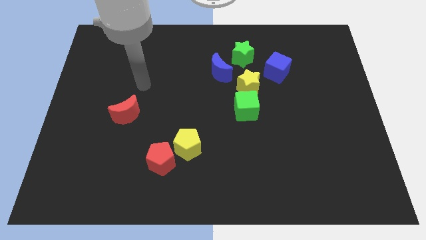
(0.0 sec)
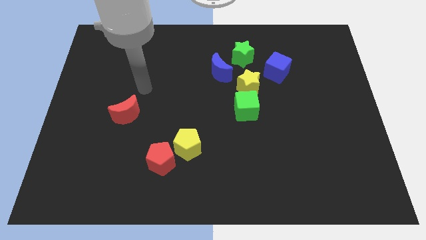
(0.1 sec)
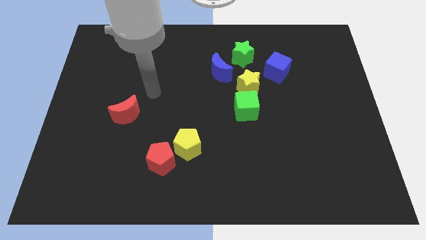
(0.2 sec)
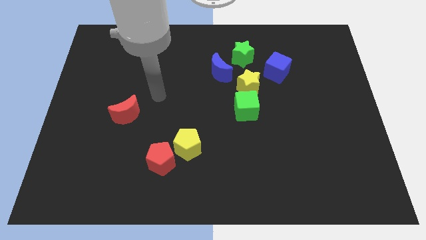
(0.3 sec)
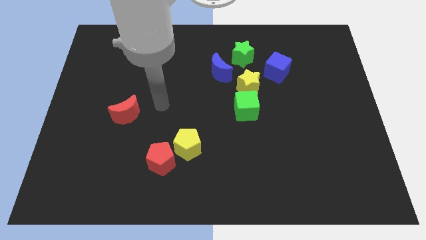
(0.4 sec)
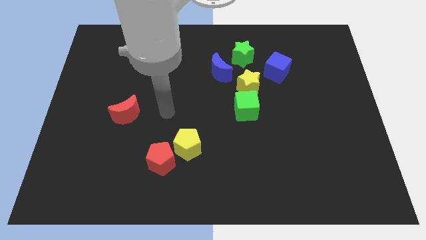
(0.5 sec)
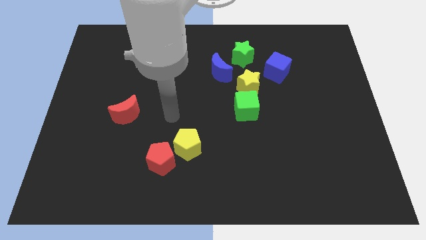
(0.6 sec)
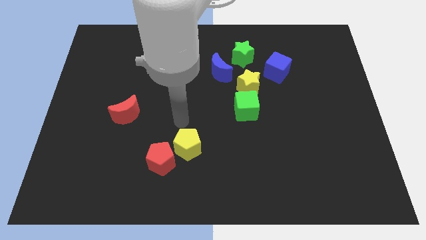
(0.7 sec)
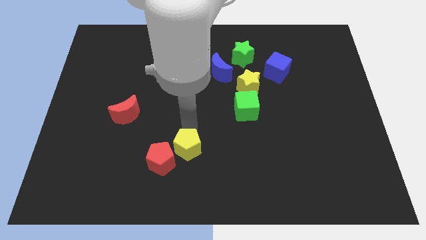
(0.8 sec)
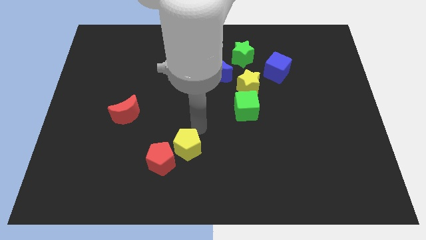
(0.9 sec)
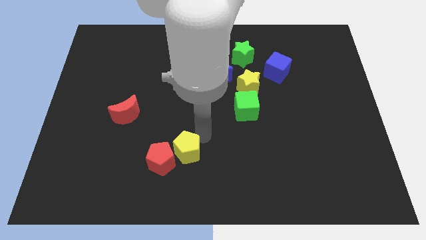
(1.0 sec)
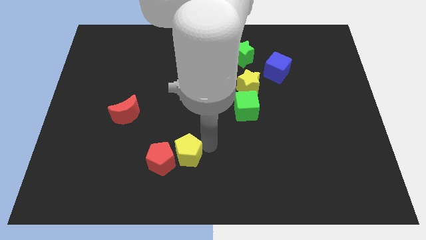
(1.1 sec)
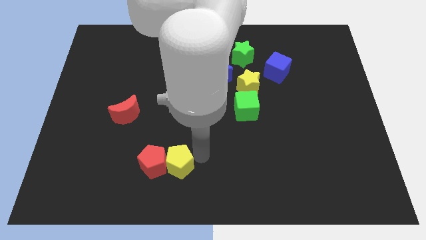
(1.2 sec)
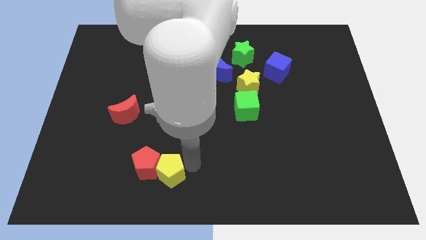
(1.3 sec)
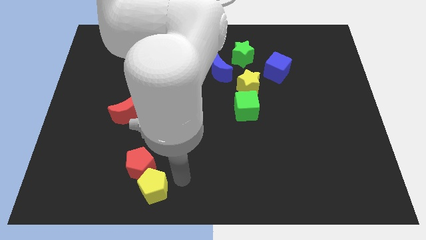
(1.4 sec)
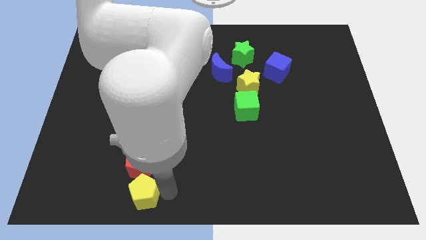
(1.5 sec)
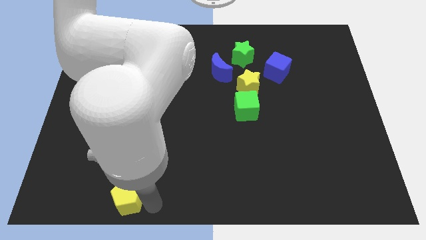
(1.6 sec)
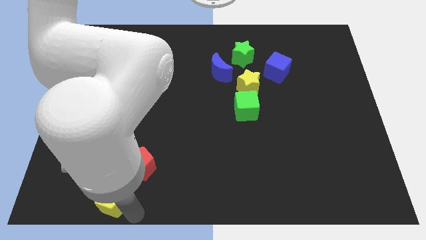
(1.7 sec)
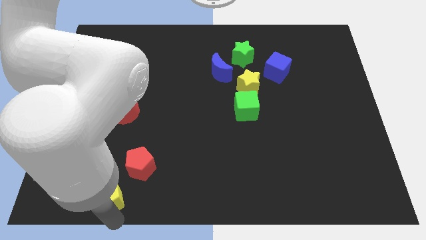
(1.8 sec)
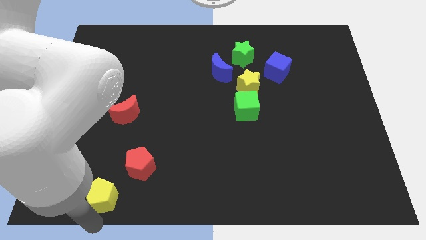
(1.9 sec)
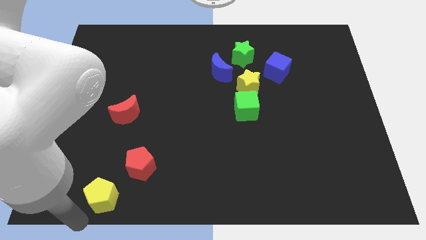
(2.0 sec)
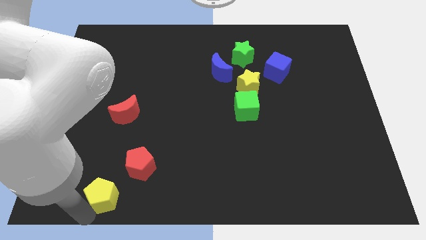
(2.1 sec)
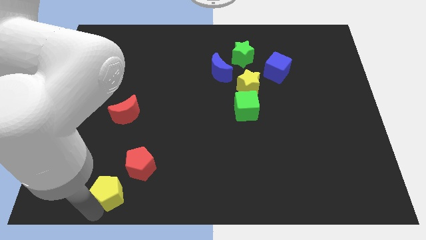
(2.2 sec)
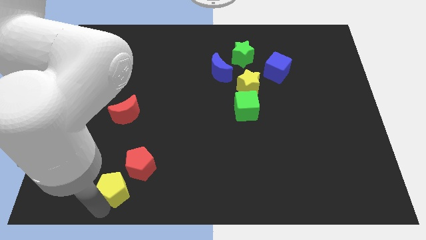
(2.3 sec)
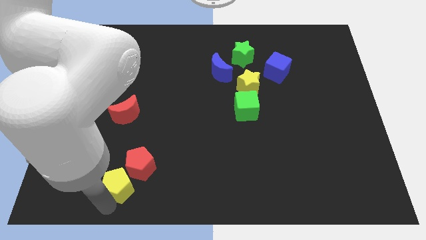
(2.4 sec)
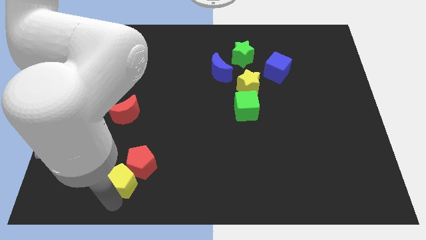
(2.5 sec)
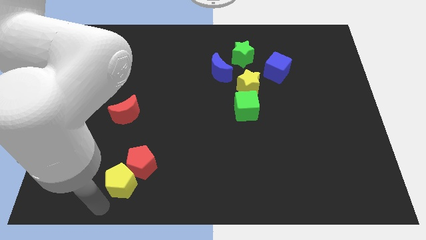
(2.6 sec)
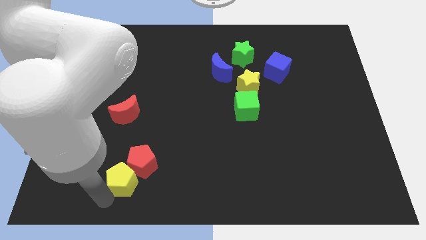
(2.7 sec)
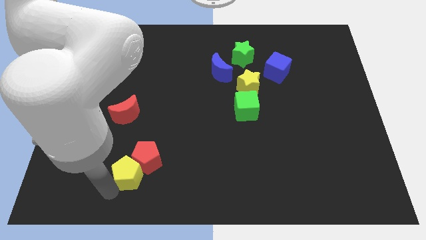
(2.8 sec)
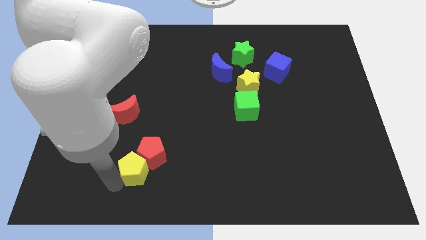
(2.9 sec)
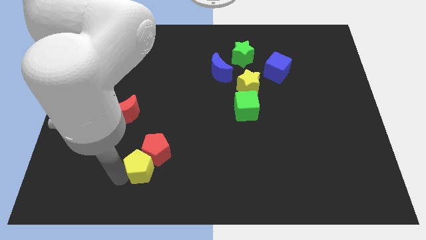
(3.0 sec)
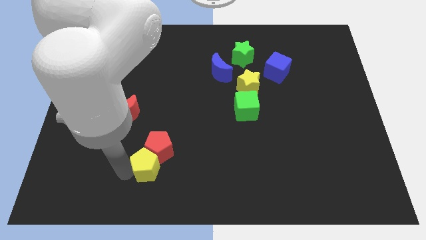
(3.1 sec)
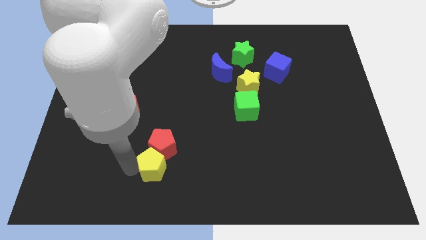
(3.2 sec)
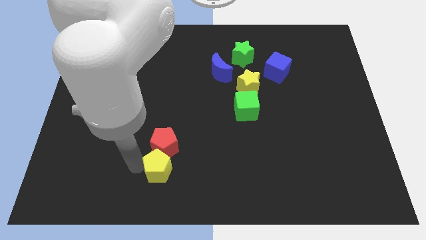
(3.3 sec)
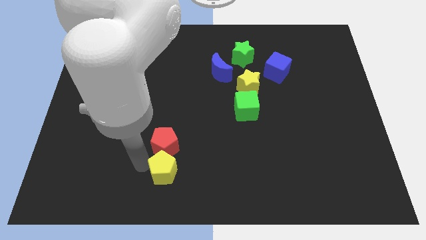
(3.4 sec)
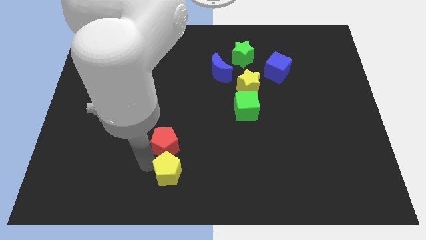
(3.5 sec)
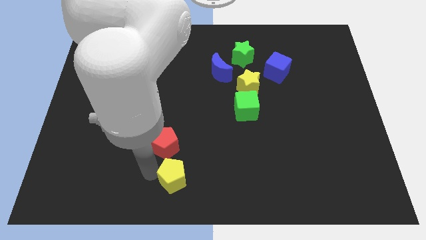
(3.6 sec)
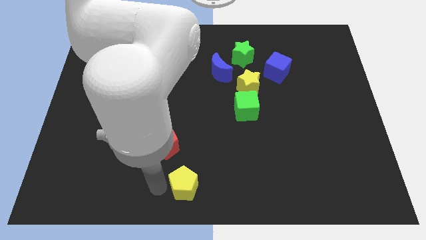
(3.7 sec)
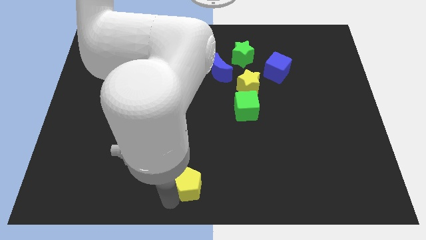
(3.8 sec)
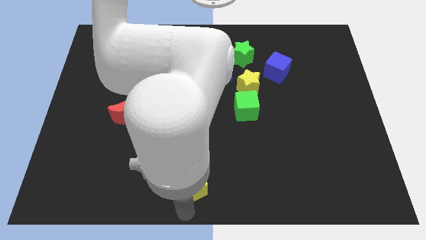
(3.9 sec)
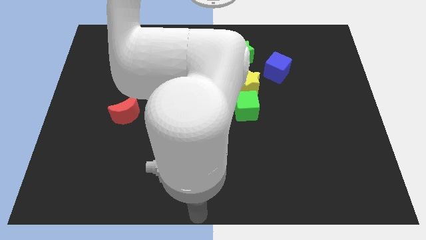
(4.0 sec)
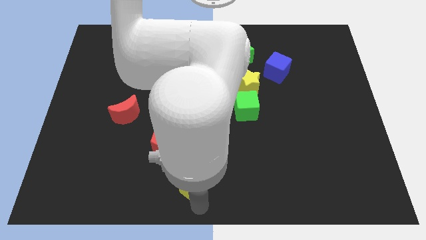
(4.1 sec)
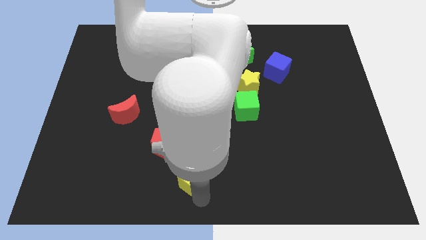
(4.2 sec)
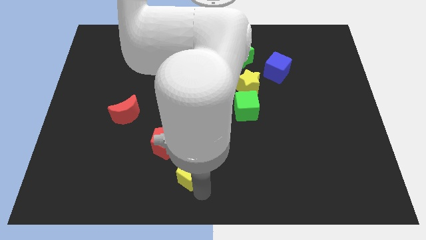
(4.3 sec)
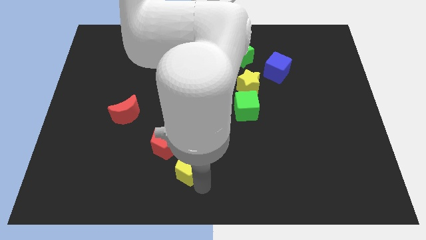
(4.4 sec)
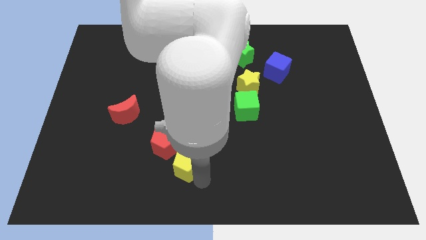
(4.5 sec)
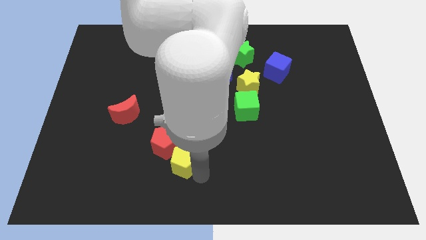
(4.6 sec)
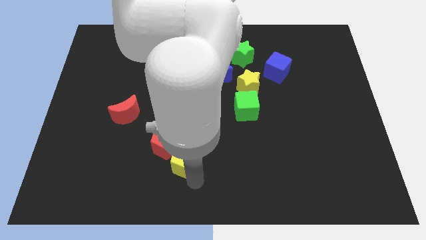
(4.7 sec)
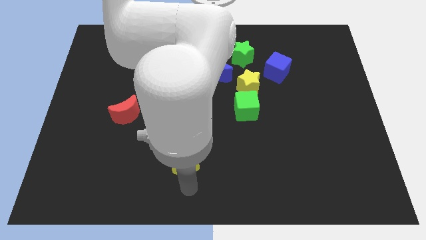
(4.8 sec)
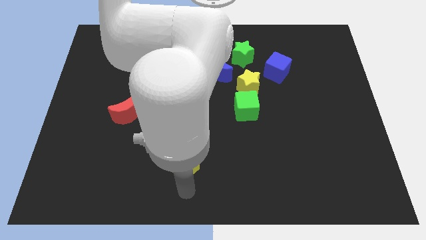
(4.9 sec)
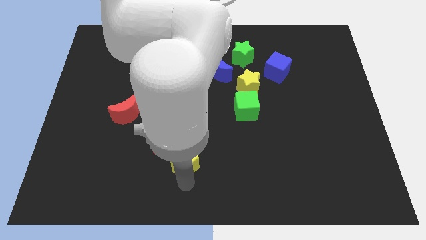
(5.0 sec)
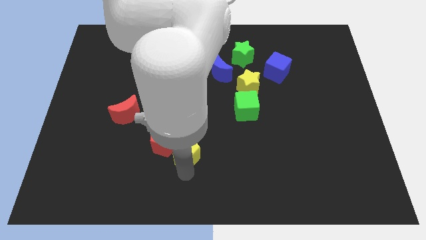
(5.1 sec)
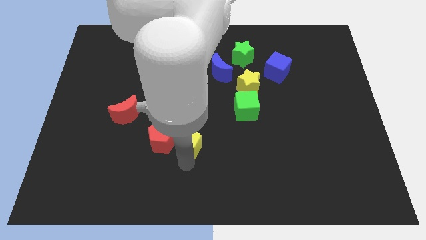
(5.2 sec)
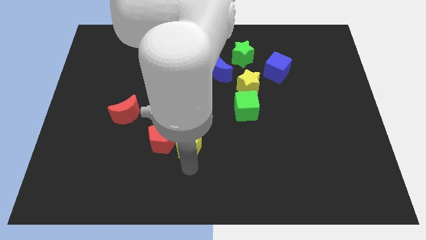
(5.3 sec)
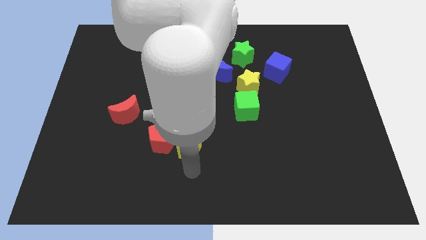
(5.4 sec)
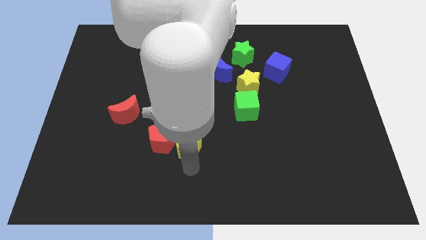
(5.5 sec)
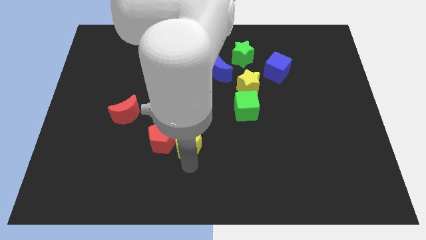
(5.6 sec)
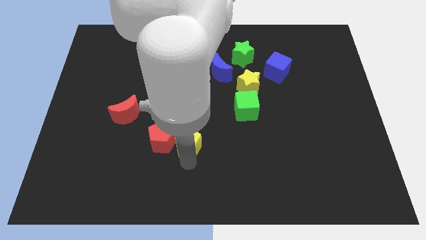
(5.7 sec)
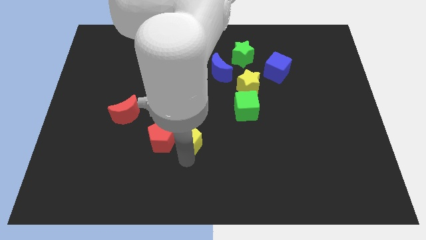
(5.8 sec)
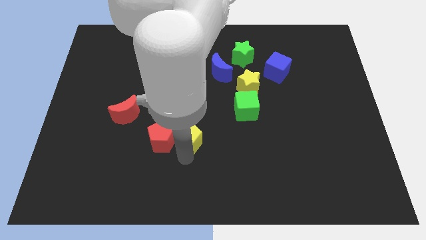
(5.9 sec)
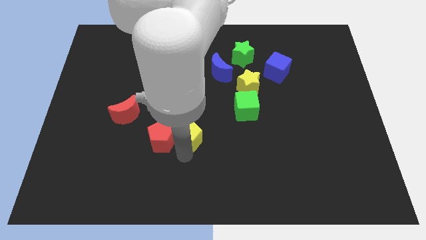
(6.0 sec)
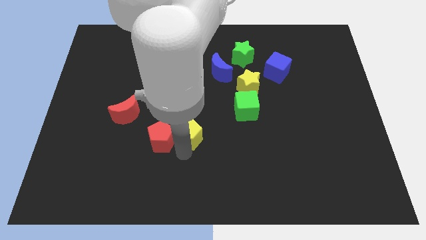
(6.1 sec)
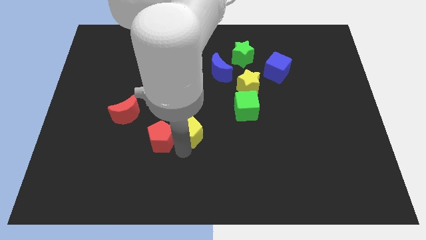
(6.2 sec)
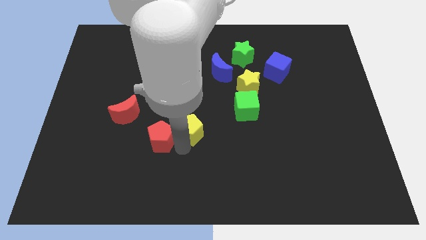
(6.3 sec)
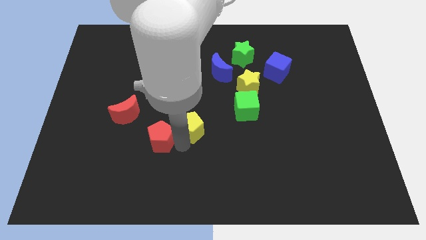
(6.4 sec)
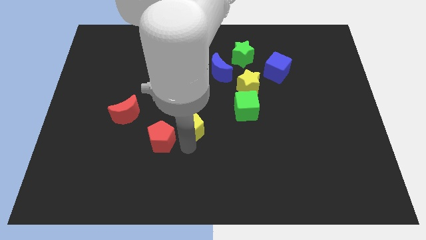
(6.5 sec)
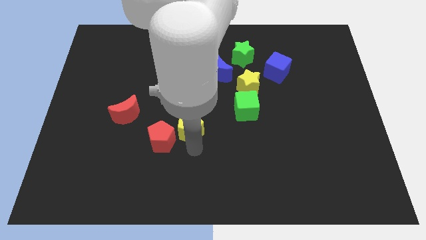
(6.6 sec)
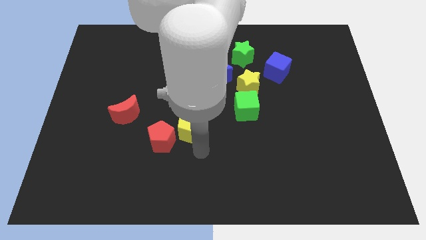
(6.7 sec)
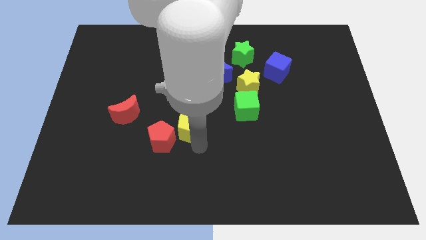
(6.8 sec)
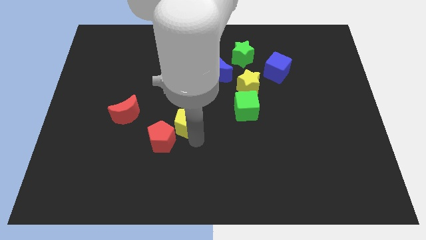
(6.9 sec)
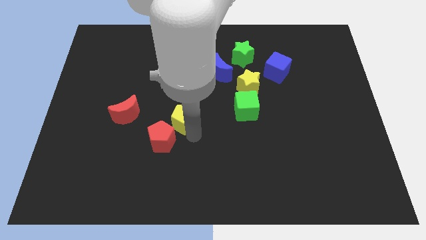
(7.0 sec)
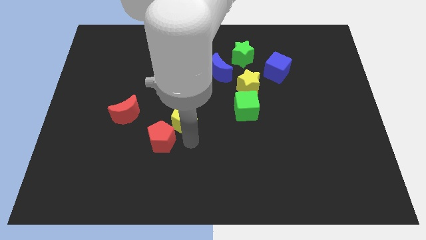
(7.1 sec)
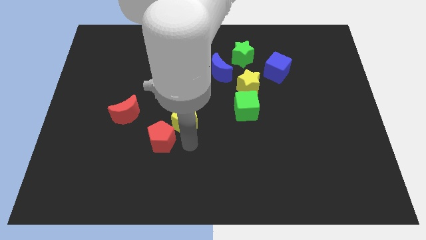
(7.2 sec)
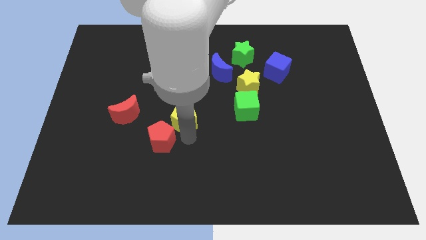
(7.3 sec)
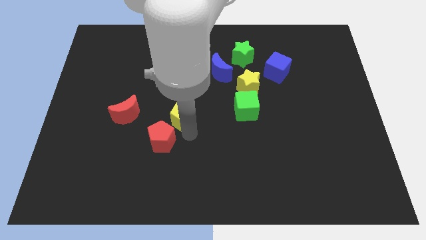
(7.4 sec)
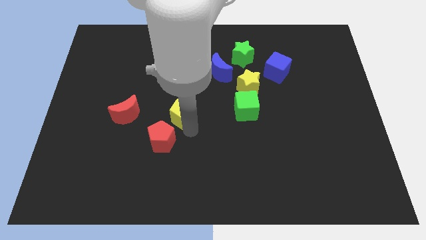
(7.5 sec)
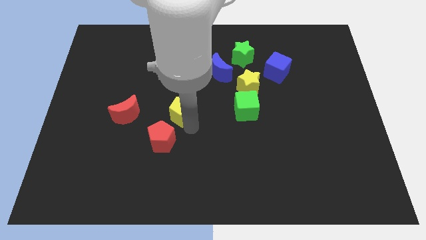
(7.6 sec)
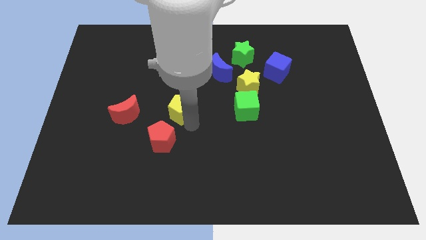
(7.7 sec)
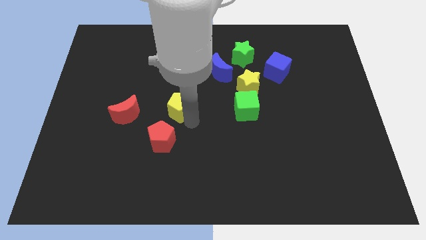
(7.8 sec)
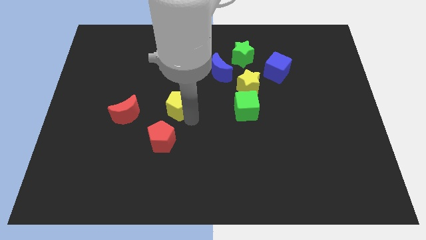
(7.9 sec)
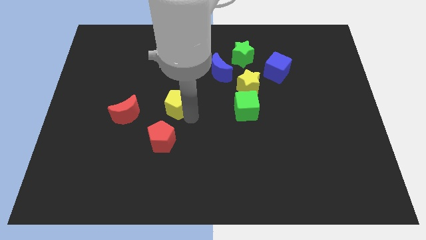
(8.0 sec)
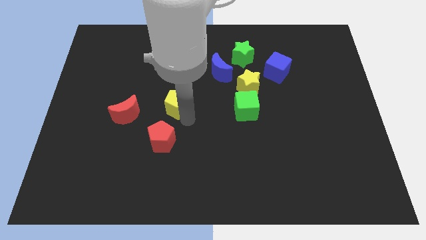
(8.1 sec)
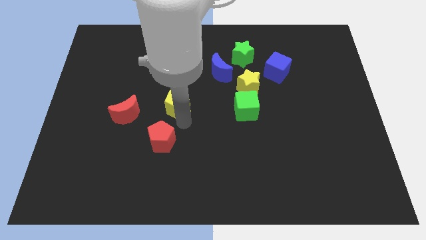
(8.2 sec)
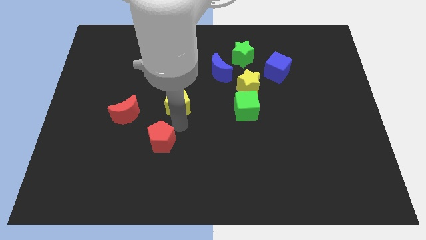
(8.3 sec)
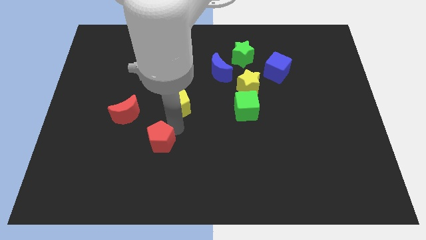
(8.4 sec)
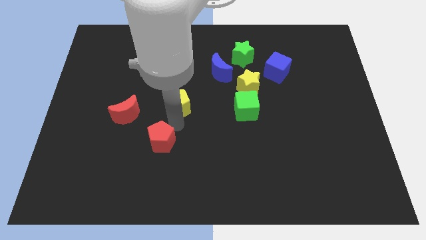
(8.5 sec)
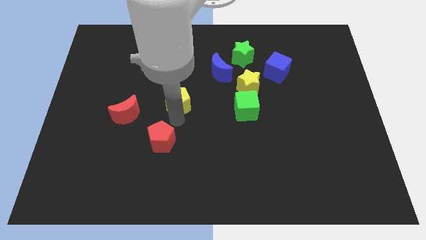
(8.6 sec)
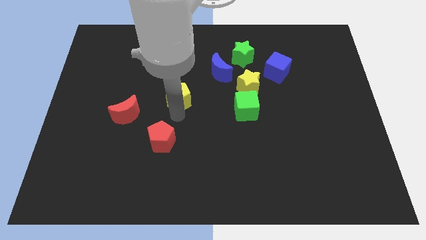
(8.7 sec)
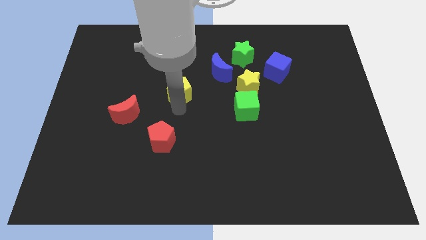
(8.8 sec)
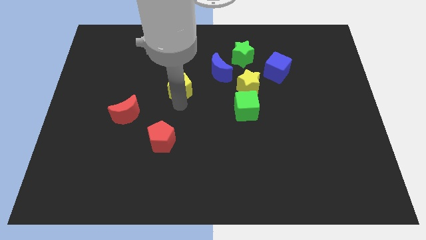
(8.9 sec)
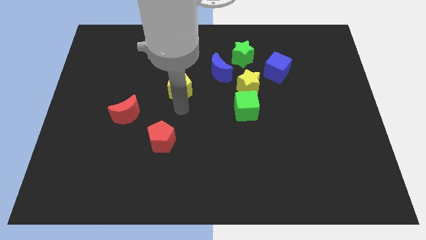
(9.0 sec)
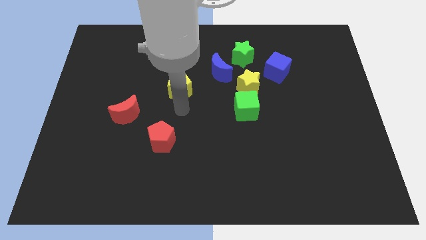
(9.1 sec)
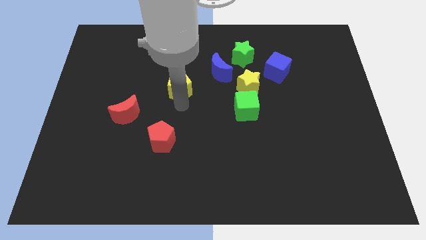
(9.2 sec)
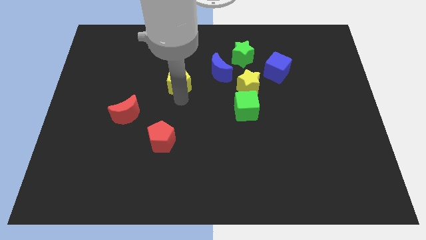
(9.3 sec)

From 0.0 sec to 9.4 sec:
push the yellow pentagon just left of the blue moon
